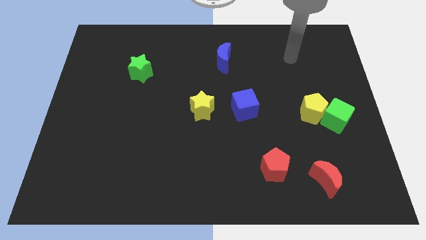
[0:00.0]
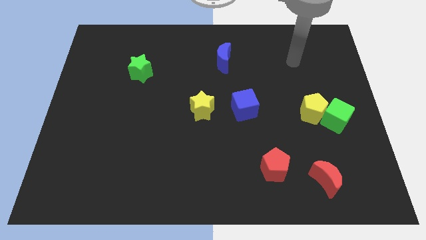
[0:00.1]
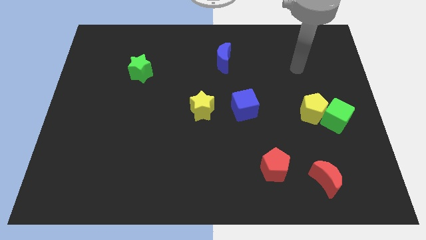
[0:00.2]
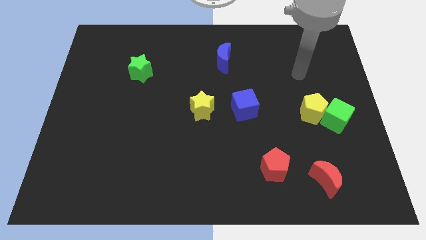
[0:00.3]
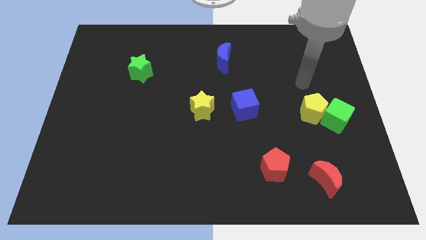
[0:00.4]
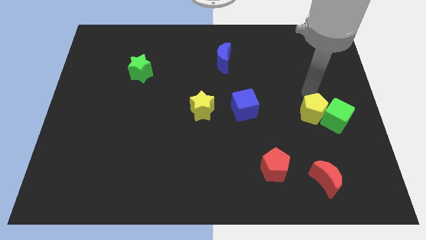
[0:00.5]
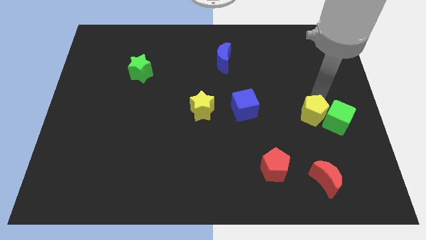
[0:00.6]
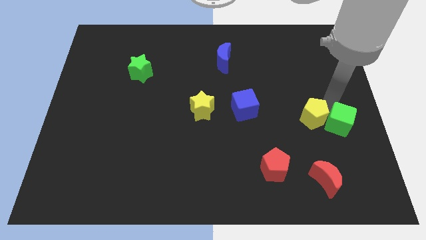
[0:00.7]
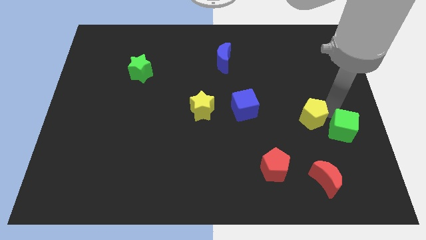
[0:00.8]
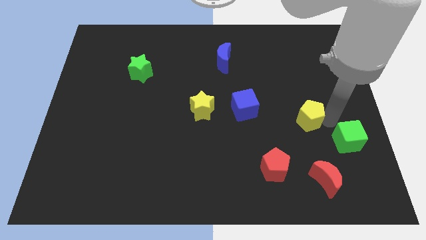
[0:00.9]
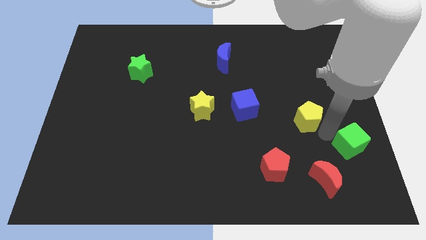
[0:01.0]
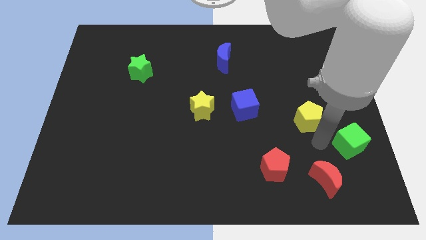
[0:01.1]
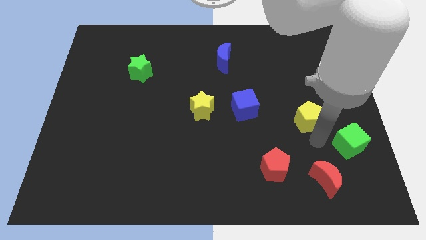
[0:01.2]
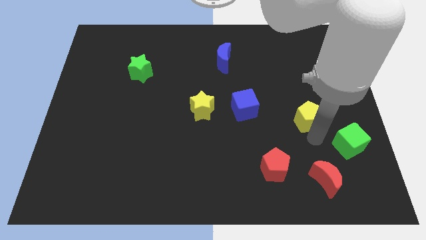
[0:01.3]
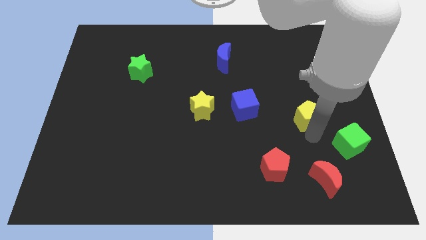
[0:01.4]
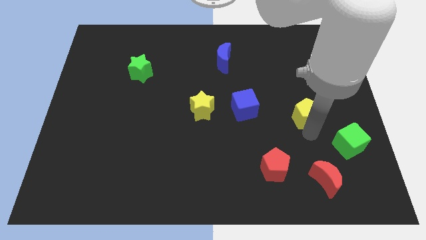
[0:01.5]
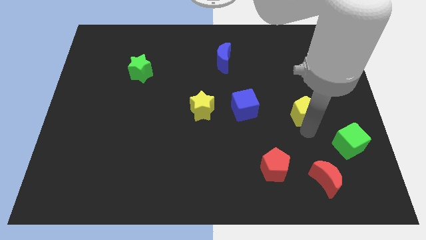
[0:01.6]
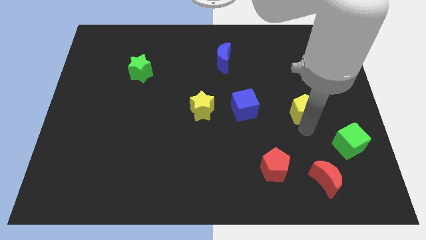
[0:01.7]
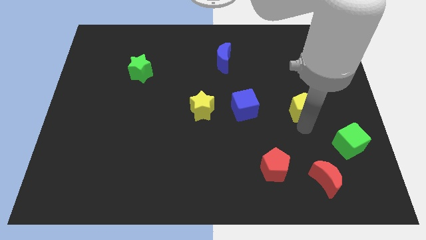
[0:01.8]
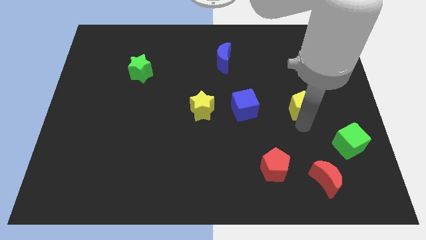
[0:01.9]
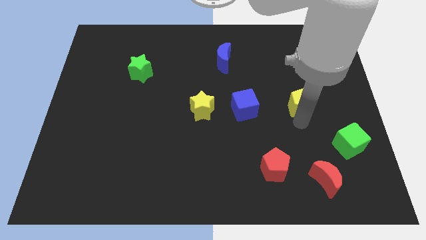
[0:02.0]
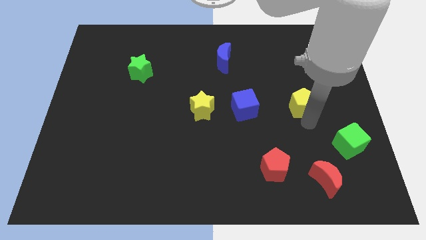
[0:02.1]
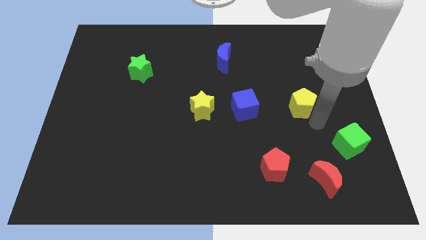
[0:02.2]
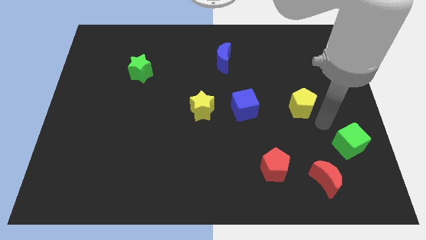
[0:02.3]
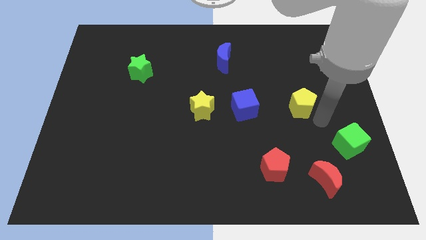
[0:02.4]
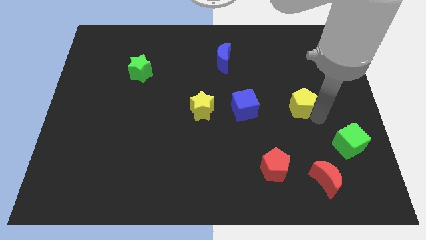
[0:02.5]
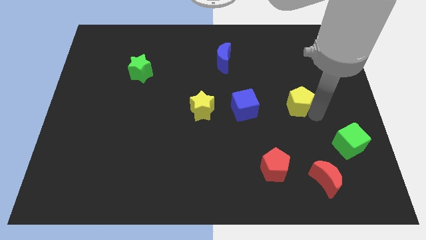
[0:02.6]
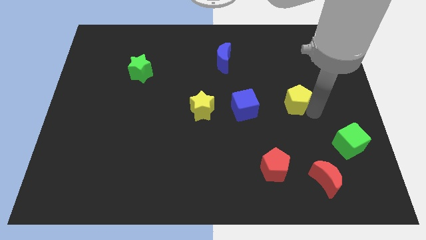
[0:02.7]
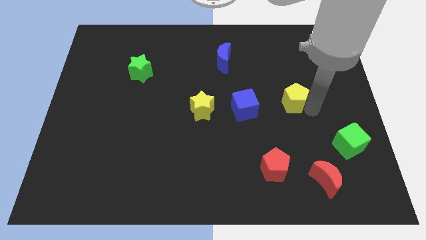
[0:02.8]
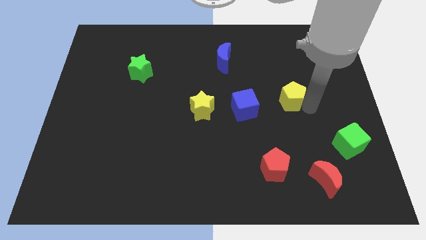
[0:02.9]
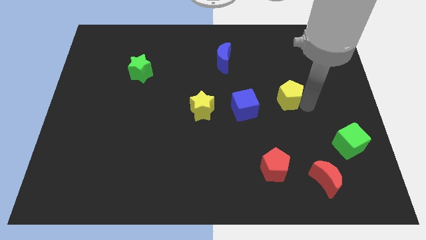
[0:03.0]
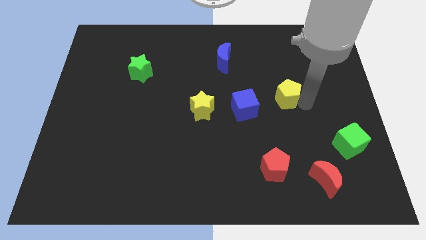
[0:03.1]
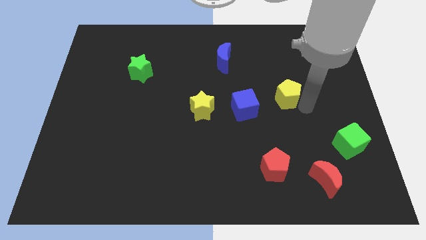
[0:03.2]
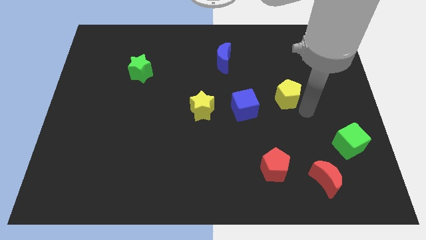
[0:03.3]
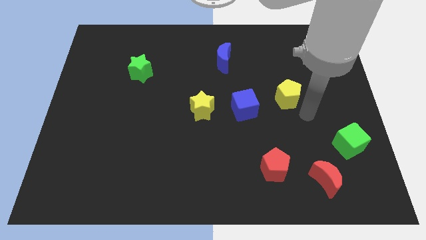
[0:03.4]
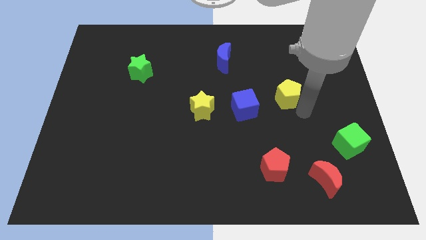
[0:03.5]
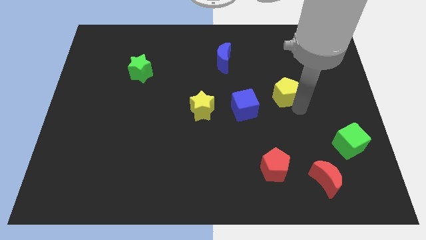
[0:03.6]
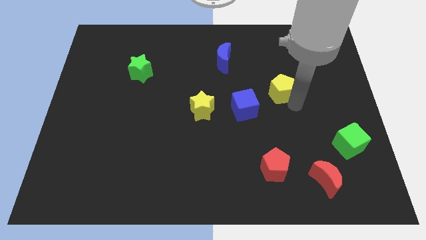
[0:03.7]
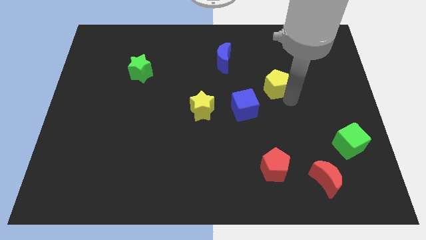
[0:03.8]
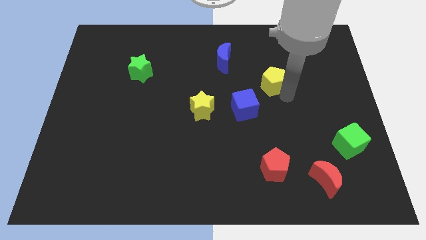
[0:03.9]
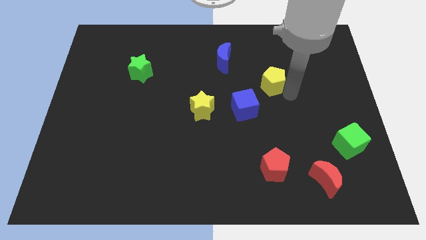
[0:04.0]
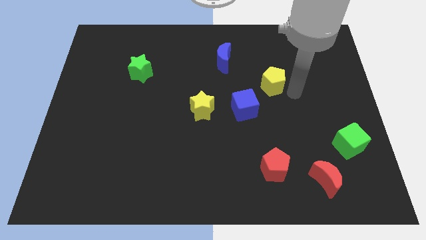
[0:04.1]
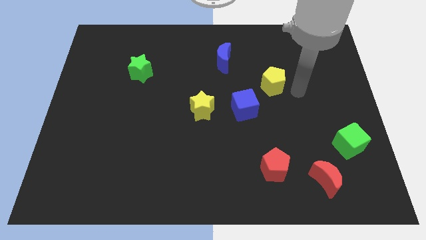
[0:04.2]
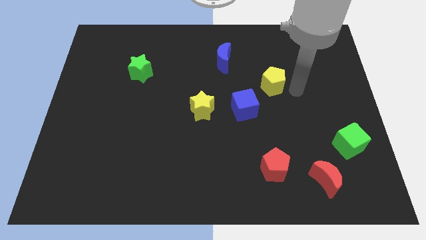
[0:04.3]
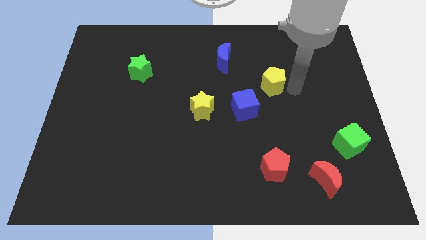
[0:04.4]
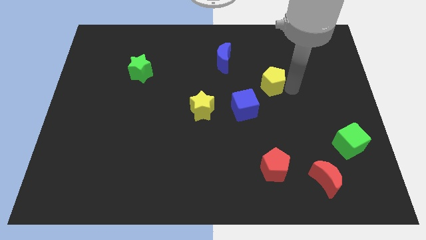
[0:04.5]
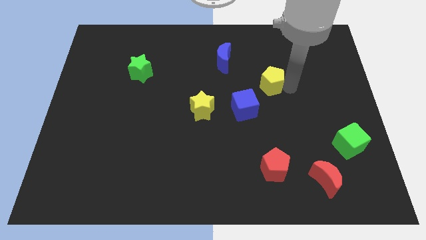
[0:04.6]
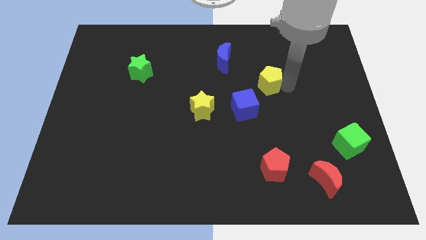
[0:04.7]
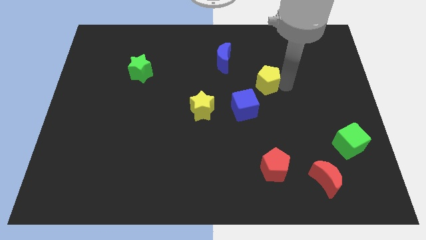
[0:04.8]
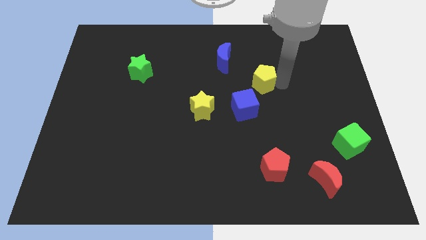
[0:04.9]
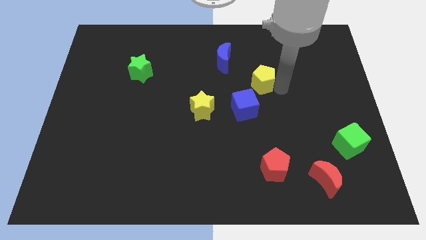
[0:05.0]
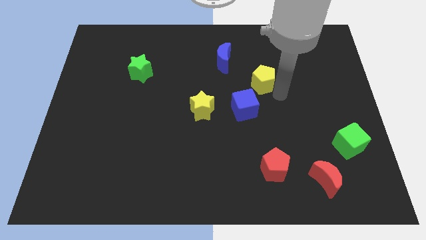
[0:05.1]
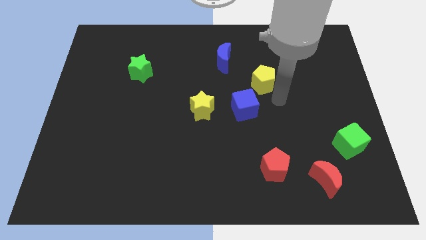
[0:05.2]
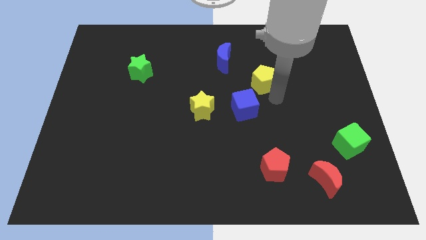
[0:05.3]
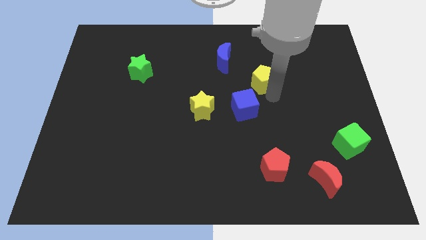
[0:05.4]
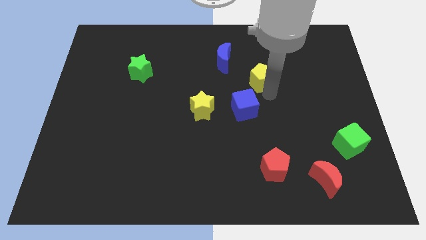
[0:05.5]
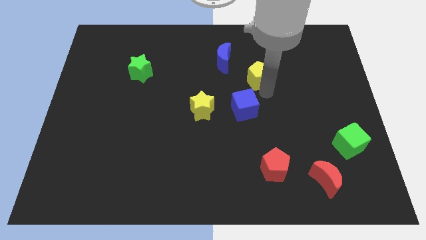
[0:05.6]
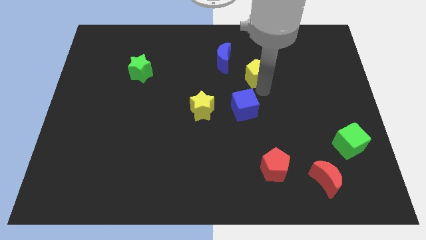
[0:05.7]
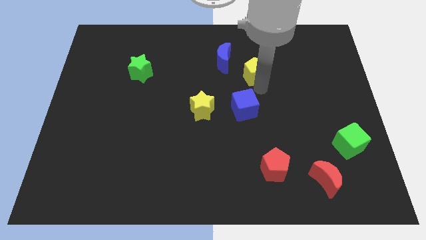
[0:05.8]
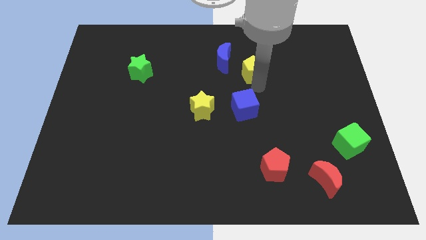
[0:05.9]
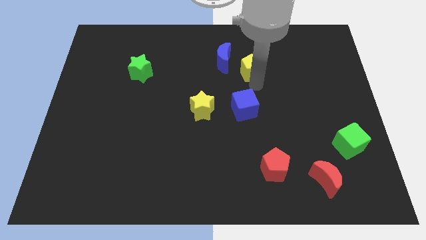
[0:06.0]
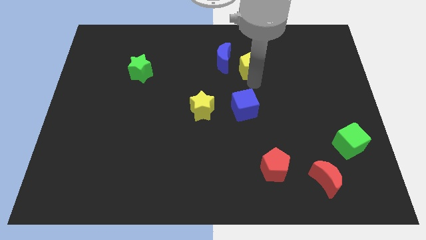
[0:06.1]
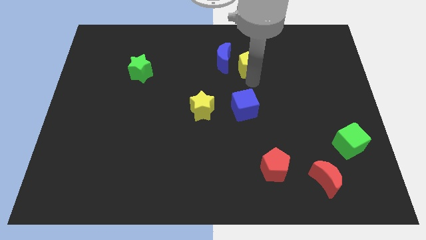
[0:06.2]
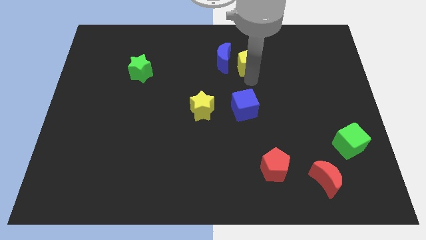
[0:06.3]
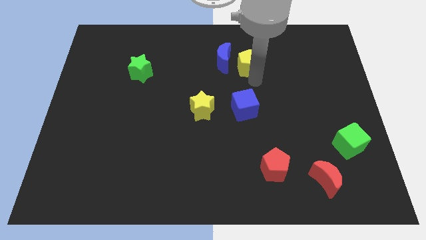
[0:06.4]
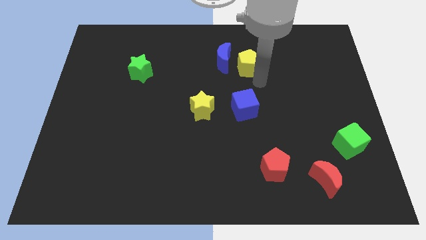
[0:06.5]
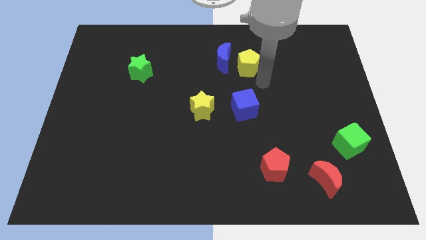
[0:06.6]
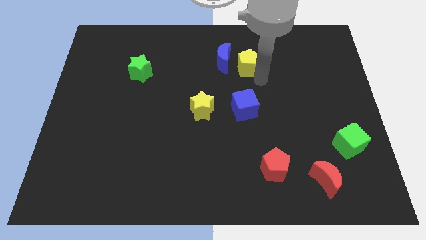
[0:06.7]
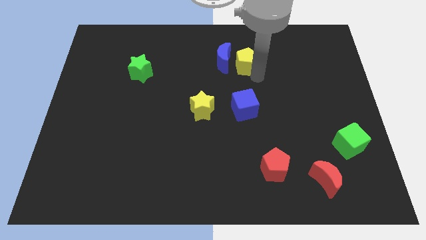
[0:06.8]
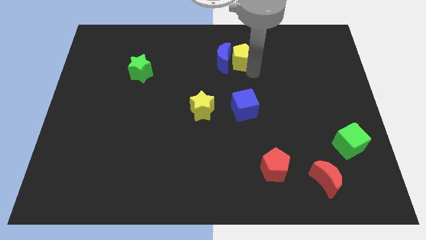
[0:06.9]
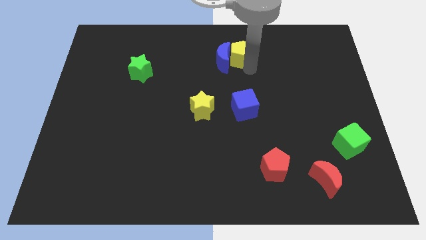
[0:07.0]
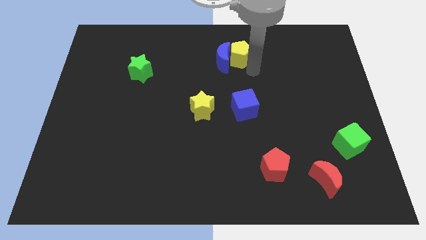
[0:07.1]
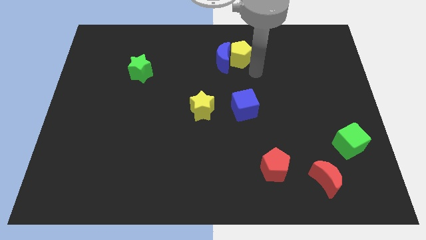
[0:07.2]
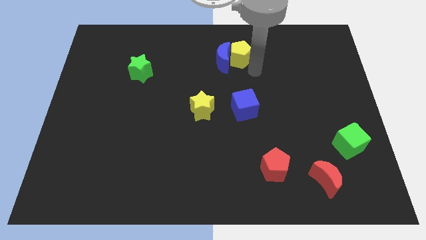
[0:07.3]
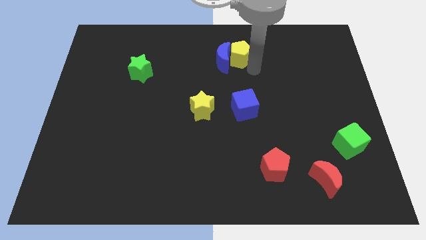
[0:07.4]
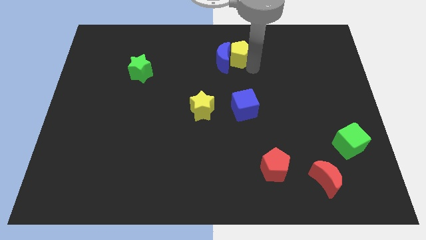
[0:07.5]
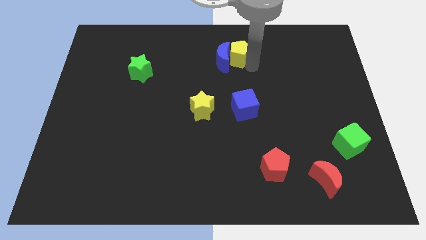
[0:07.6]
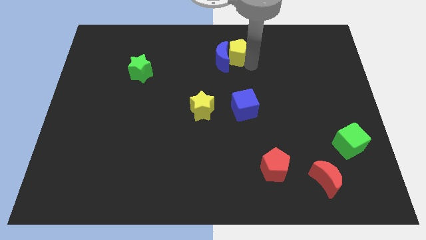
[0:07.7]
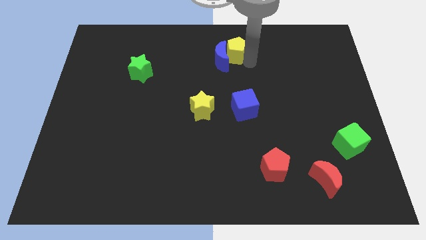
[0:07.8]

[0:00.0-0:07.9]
put the yellow pentagon to the top side
